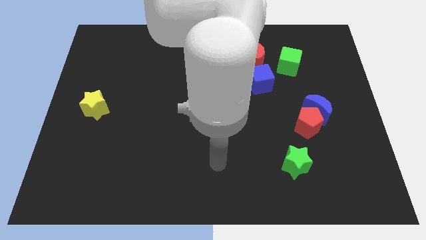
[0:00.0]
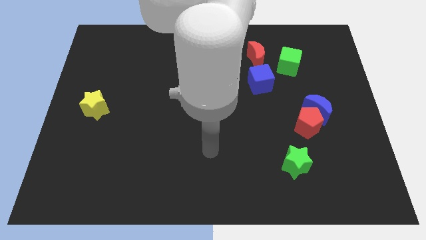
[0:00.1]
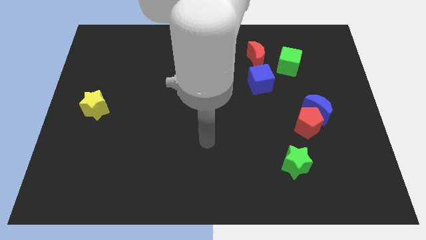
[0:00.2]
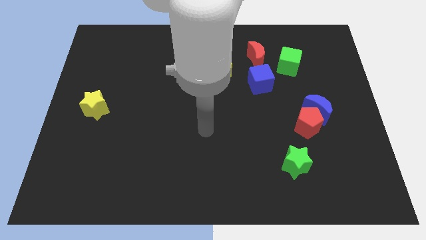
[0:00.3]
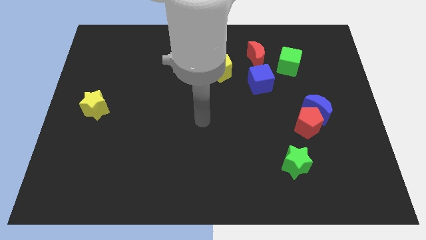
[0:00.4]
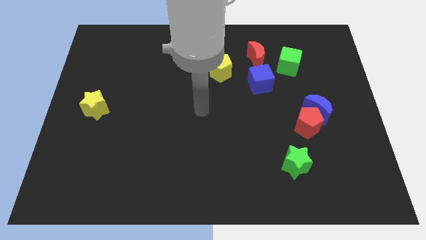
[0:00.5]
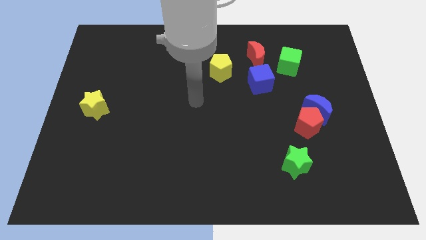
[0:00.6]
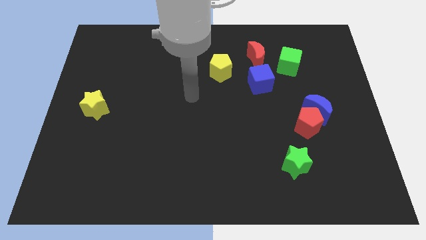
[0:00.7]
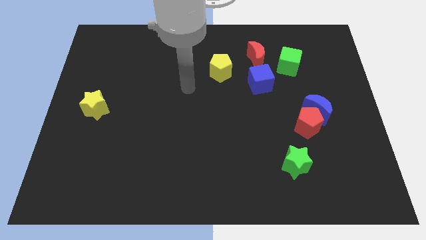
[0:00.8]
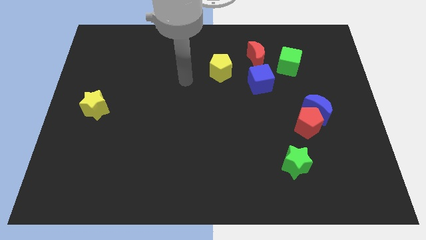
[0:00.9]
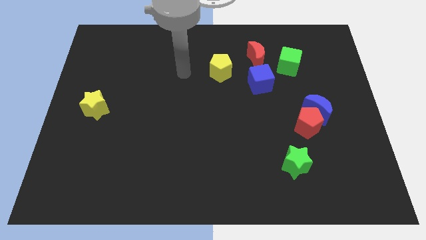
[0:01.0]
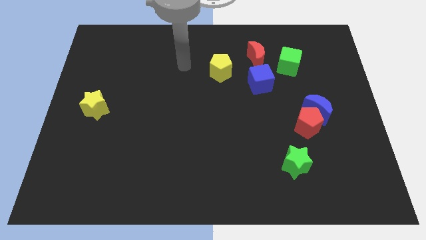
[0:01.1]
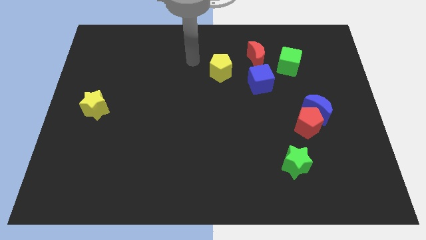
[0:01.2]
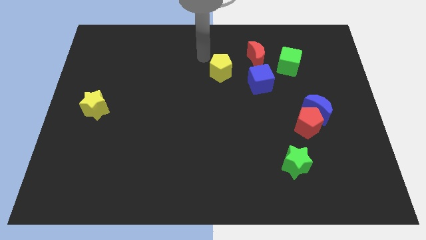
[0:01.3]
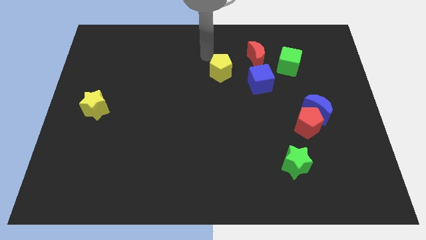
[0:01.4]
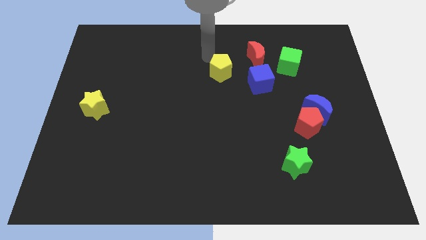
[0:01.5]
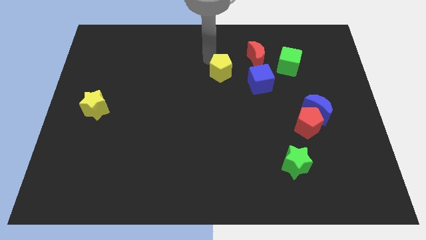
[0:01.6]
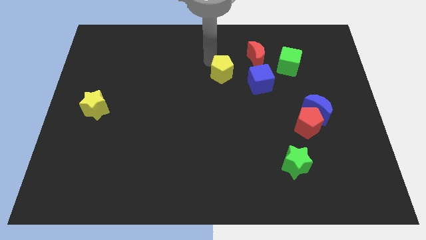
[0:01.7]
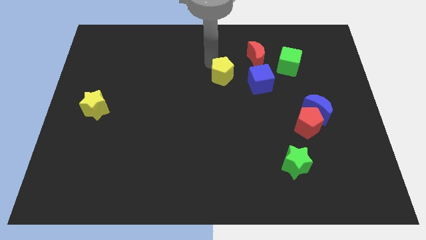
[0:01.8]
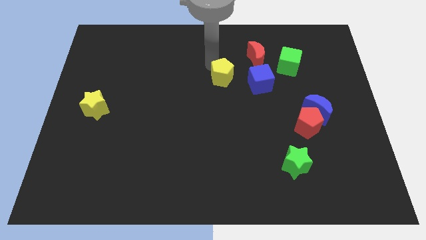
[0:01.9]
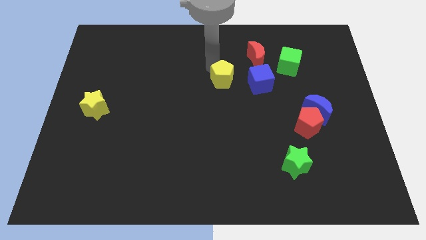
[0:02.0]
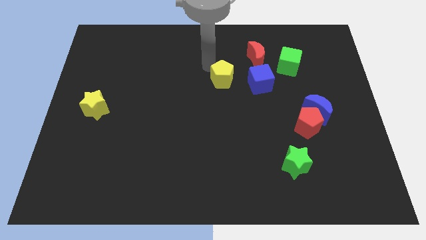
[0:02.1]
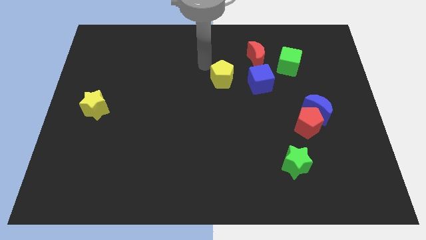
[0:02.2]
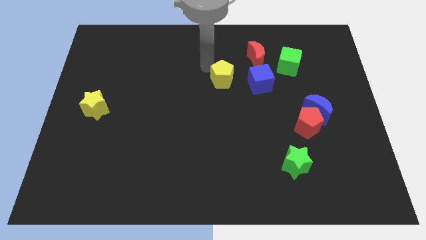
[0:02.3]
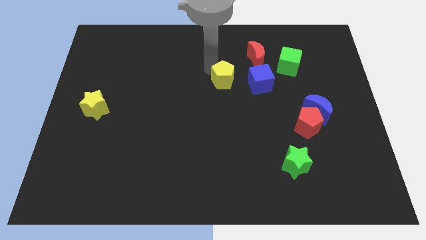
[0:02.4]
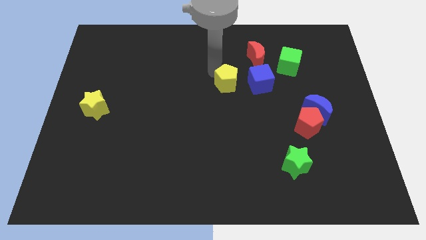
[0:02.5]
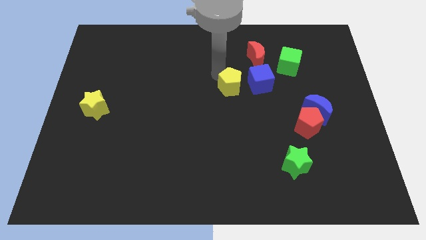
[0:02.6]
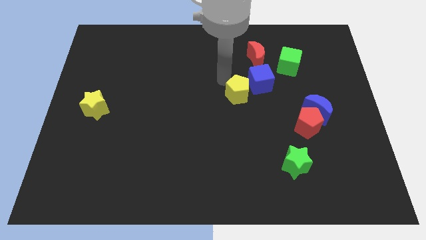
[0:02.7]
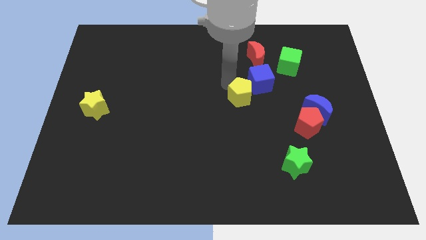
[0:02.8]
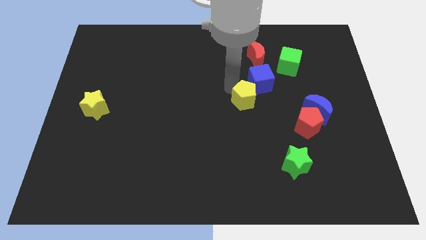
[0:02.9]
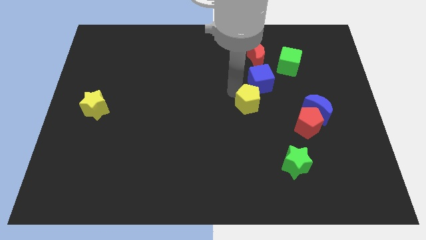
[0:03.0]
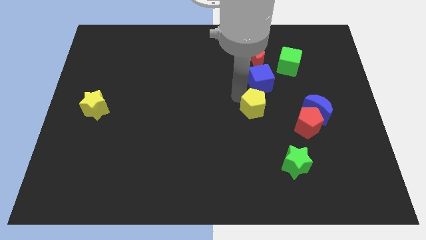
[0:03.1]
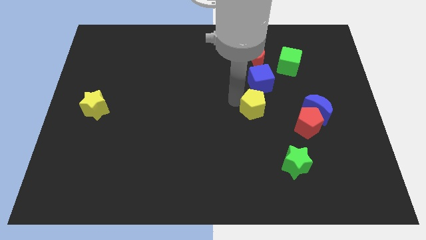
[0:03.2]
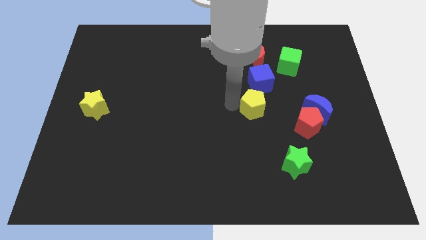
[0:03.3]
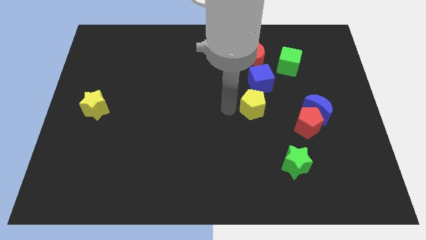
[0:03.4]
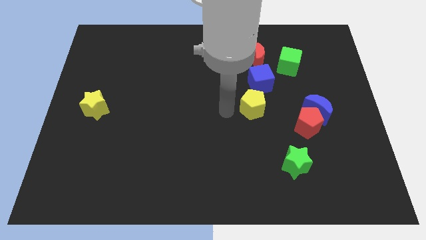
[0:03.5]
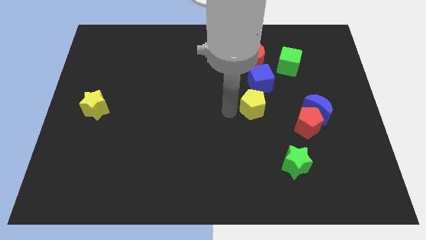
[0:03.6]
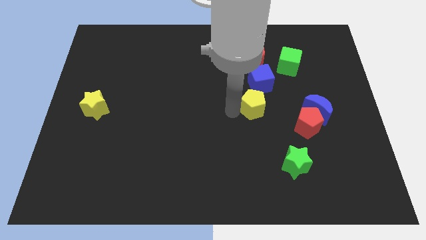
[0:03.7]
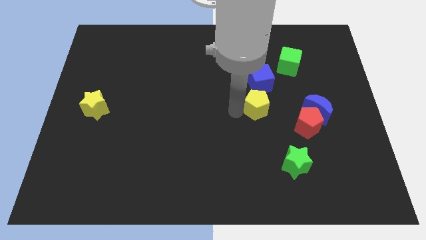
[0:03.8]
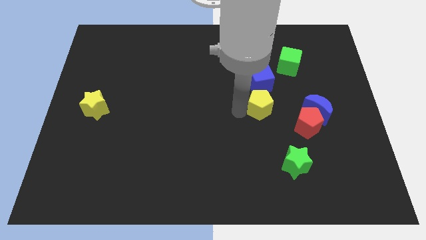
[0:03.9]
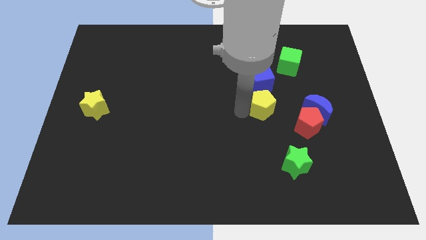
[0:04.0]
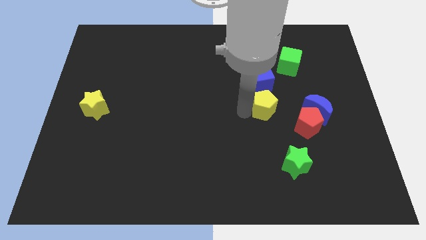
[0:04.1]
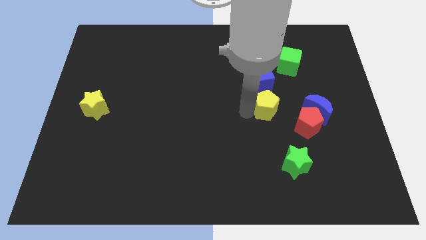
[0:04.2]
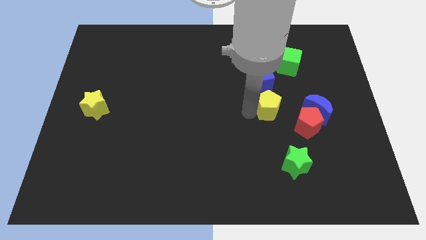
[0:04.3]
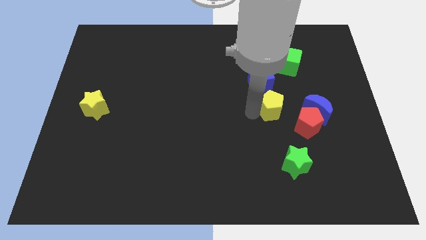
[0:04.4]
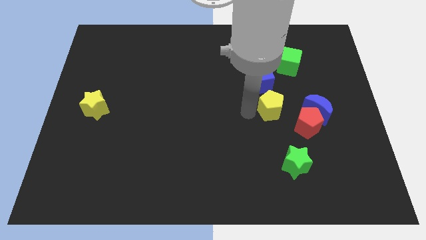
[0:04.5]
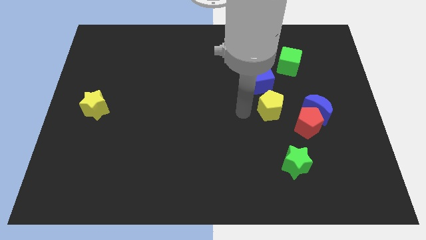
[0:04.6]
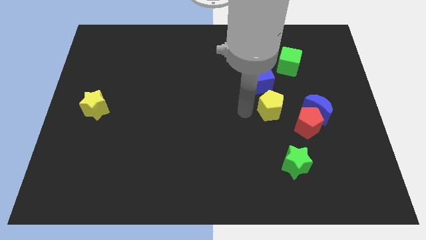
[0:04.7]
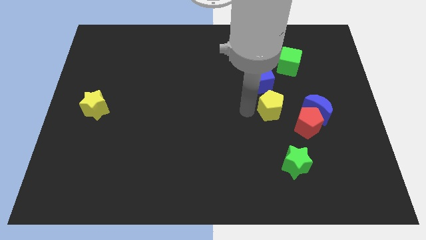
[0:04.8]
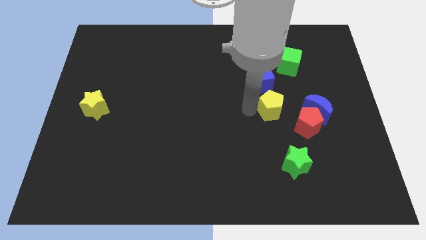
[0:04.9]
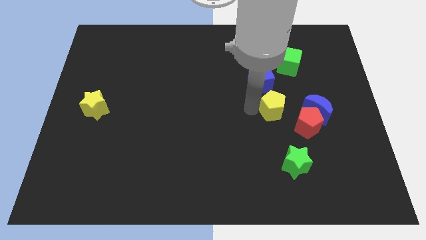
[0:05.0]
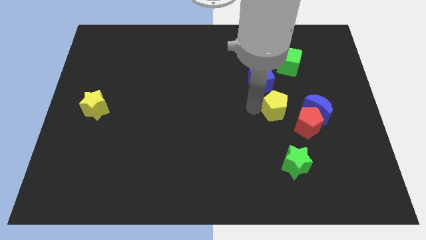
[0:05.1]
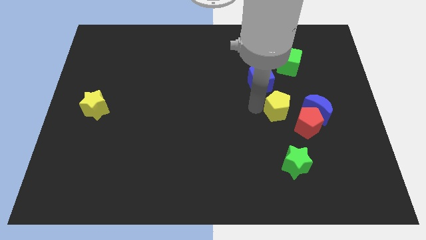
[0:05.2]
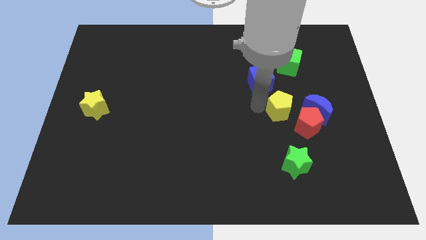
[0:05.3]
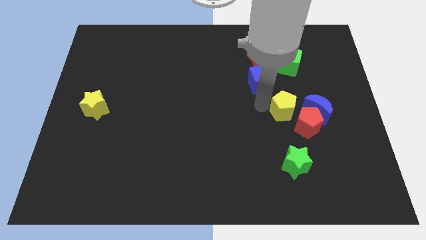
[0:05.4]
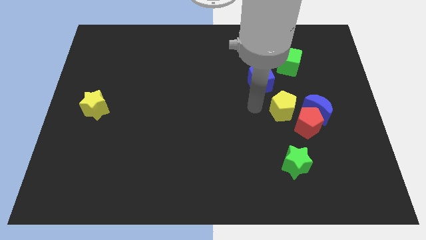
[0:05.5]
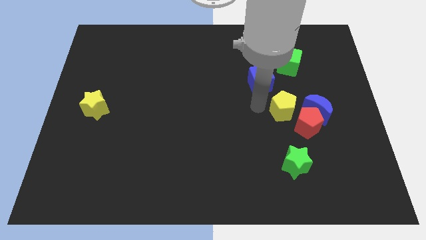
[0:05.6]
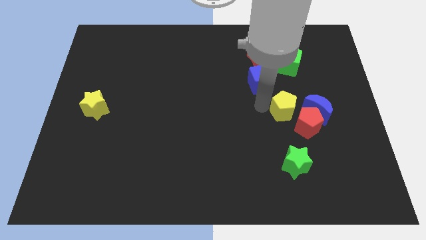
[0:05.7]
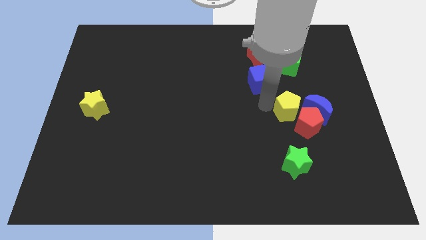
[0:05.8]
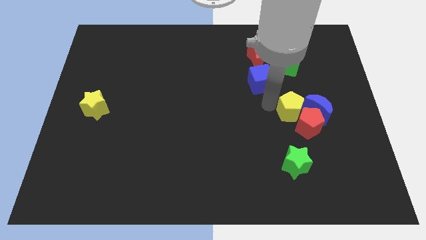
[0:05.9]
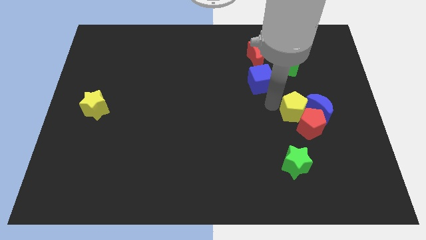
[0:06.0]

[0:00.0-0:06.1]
push the yellow pentagon to the blue moon
